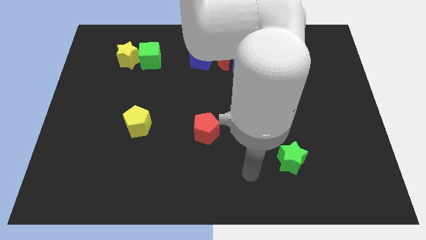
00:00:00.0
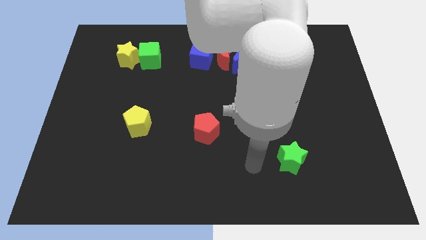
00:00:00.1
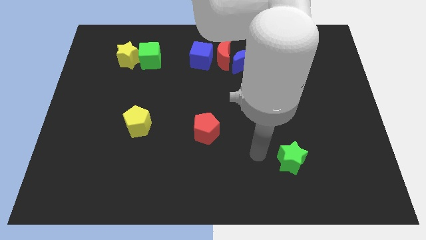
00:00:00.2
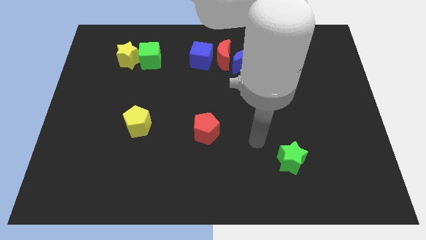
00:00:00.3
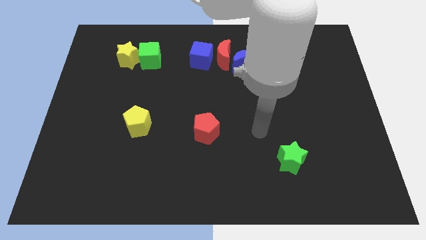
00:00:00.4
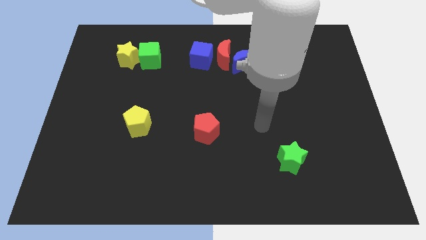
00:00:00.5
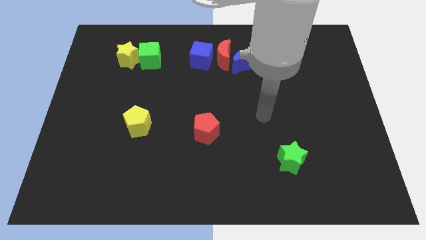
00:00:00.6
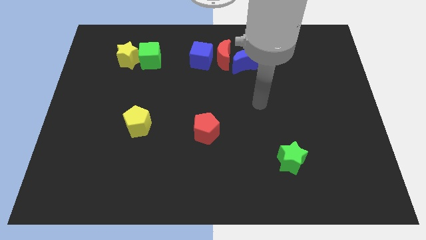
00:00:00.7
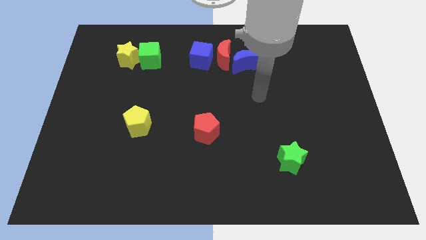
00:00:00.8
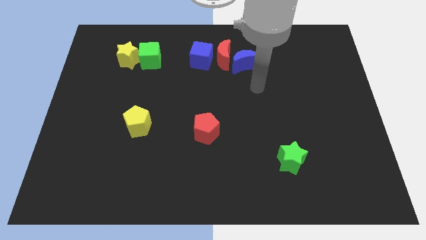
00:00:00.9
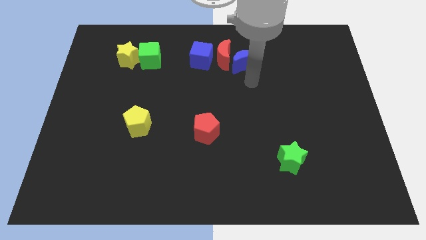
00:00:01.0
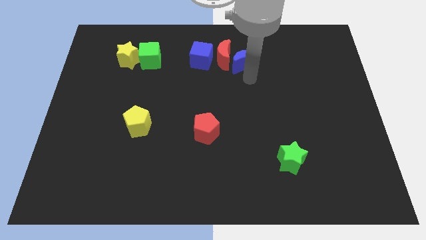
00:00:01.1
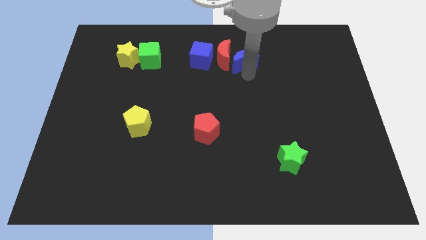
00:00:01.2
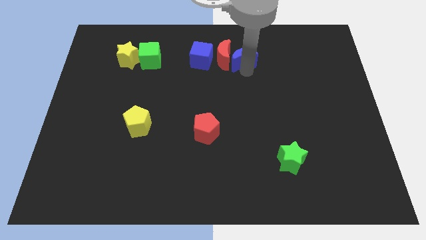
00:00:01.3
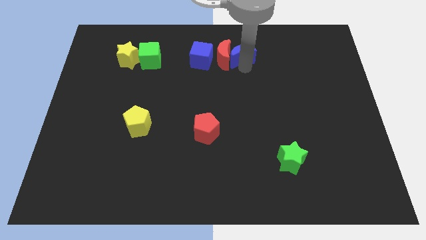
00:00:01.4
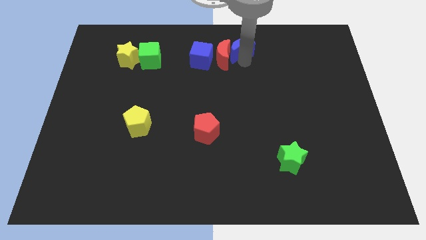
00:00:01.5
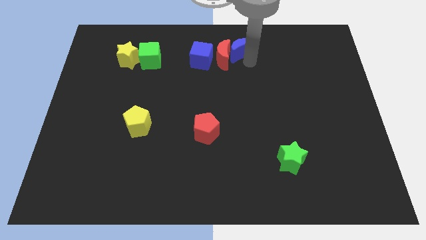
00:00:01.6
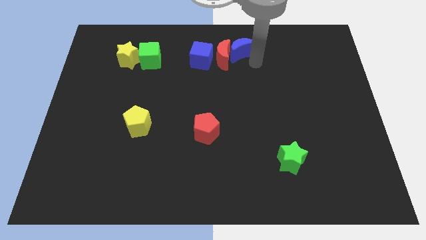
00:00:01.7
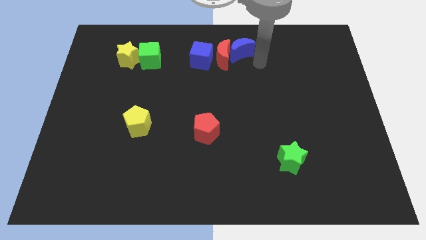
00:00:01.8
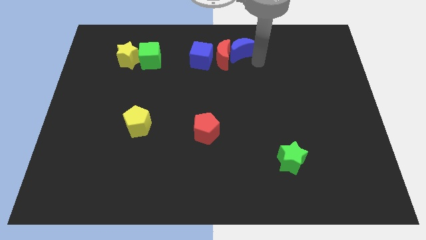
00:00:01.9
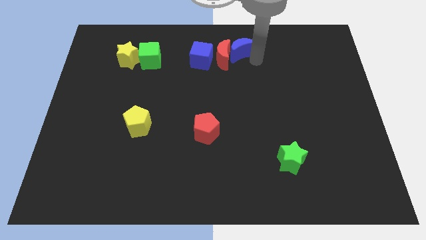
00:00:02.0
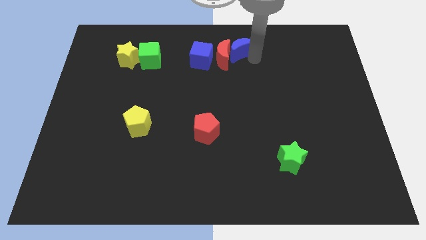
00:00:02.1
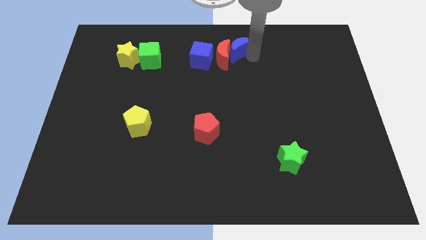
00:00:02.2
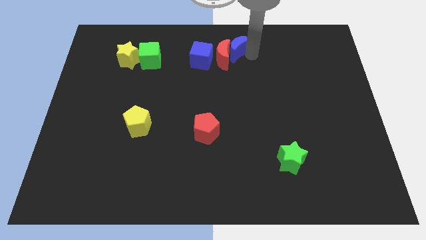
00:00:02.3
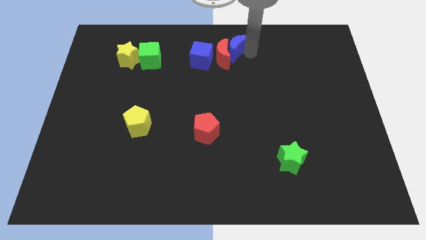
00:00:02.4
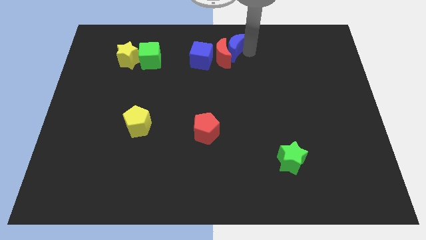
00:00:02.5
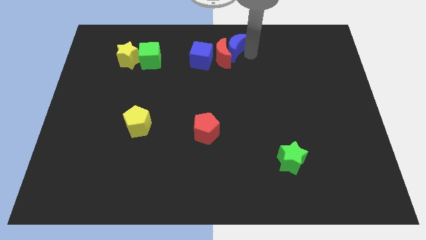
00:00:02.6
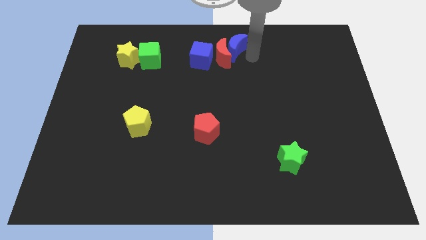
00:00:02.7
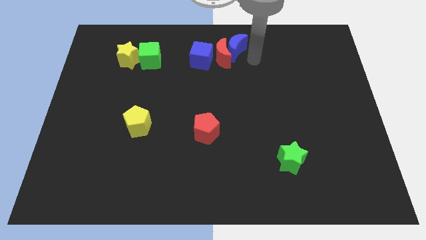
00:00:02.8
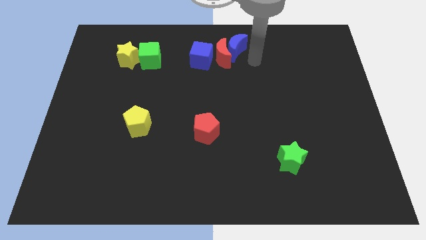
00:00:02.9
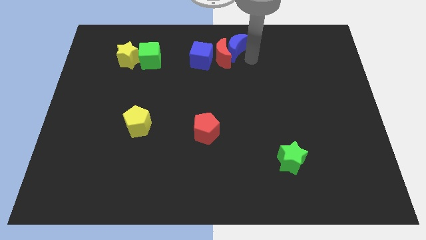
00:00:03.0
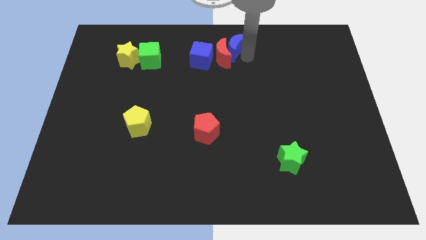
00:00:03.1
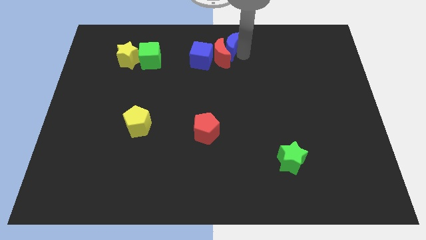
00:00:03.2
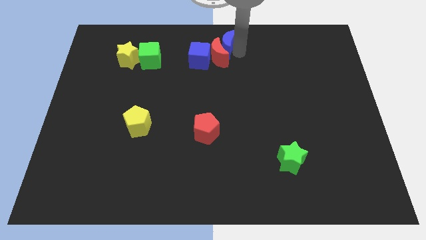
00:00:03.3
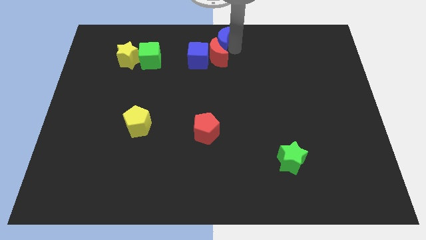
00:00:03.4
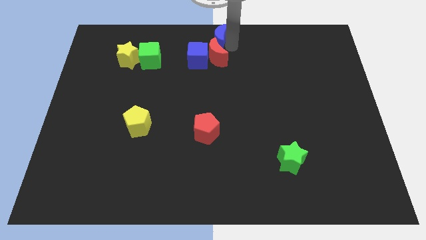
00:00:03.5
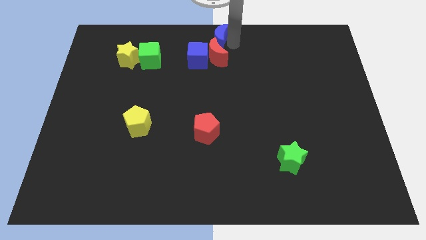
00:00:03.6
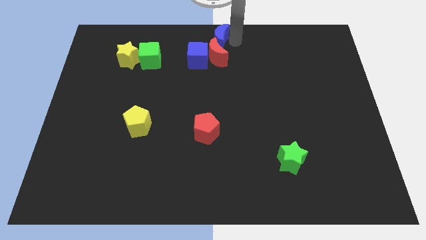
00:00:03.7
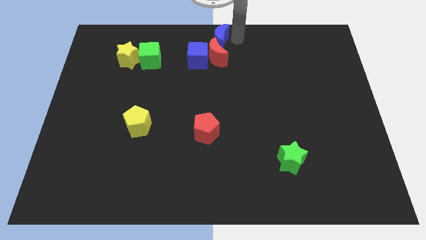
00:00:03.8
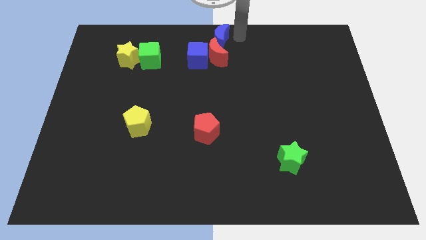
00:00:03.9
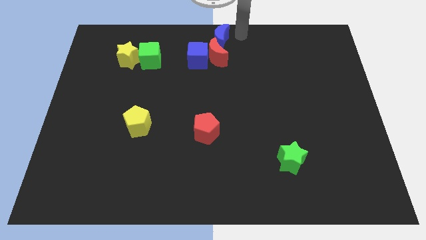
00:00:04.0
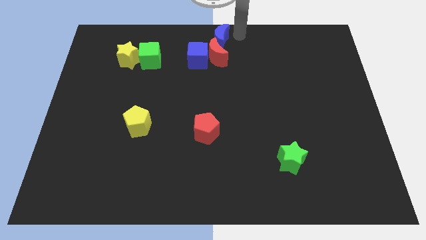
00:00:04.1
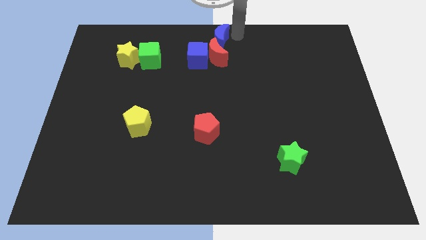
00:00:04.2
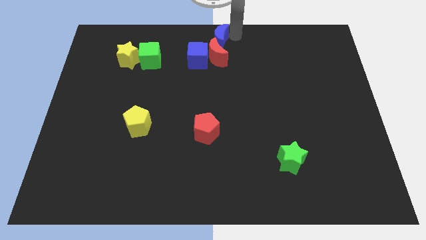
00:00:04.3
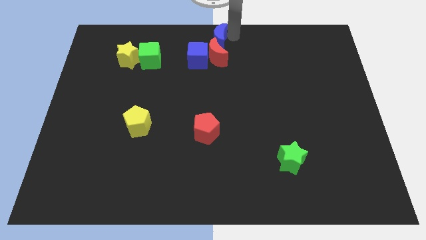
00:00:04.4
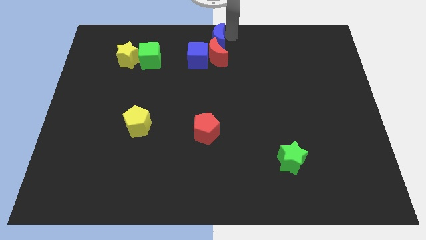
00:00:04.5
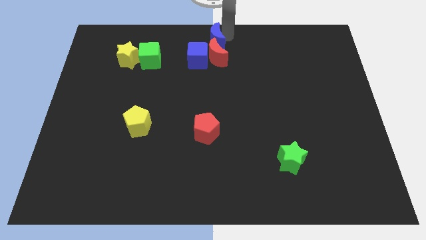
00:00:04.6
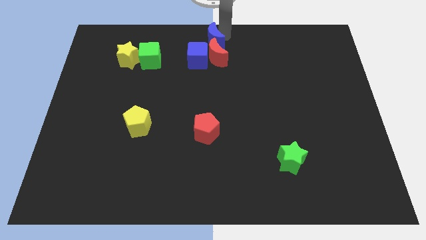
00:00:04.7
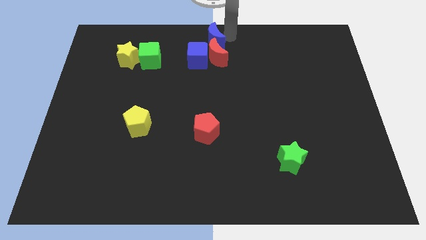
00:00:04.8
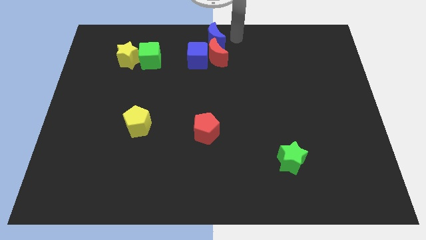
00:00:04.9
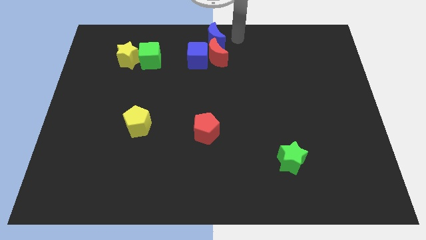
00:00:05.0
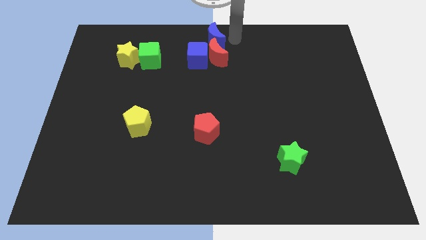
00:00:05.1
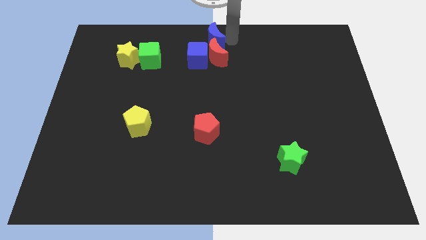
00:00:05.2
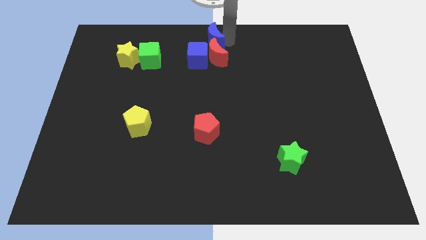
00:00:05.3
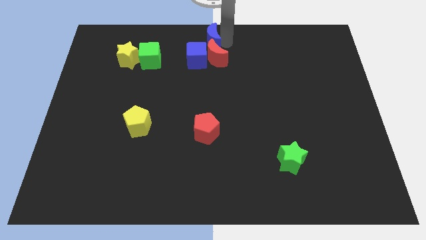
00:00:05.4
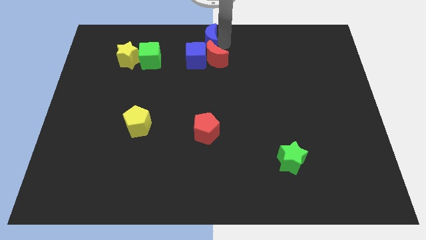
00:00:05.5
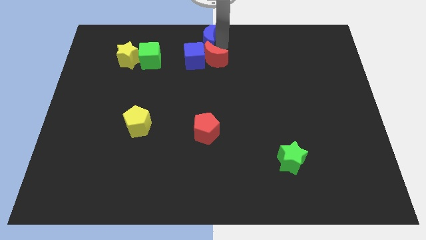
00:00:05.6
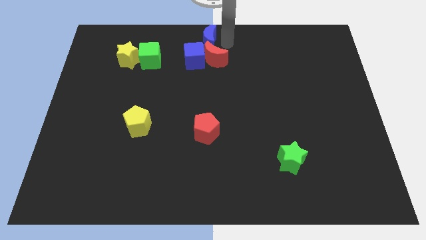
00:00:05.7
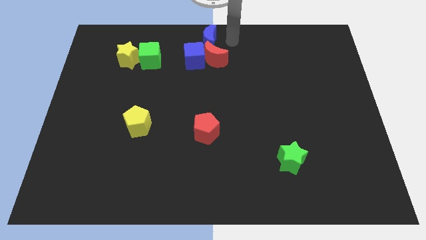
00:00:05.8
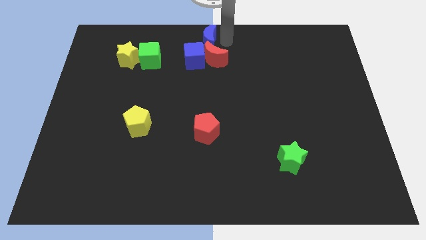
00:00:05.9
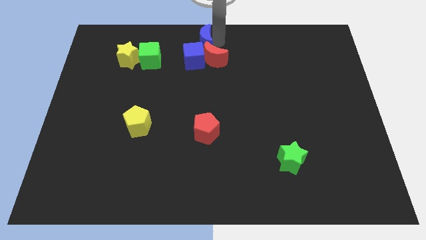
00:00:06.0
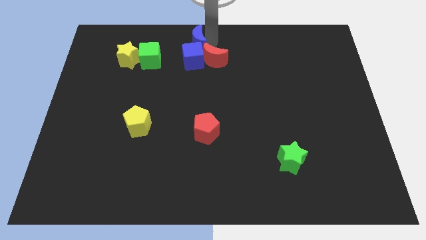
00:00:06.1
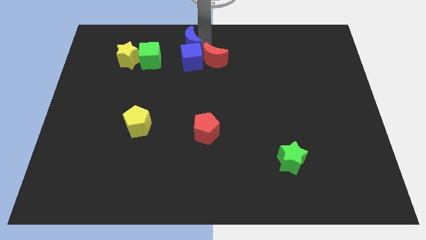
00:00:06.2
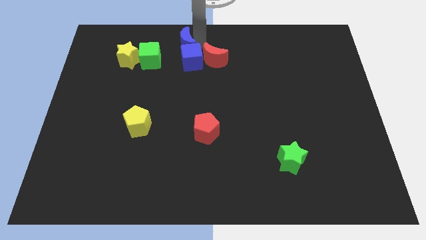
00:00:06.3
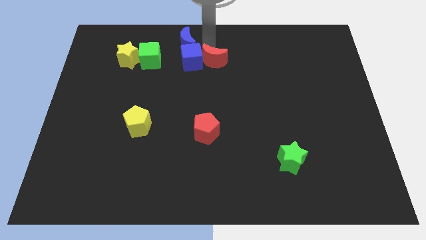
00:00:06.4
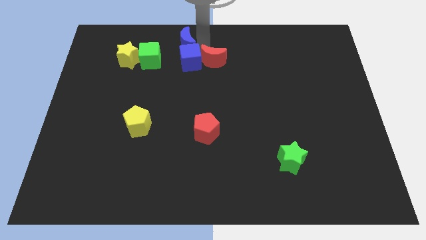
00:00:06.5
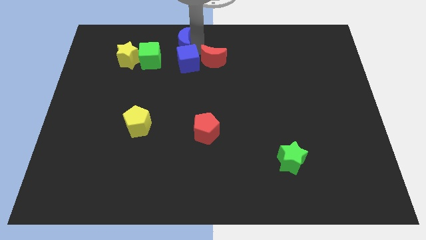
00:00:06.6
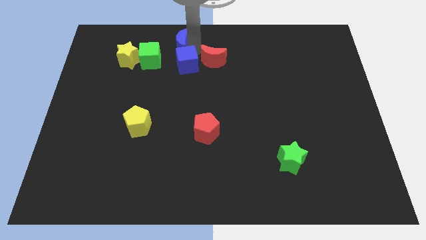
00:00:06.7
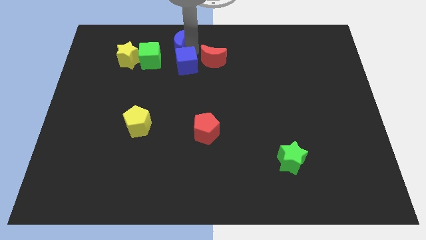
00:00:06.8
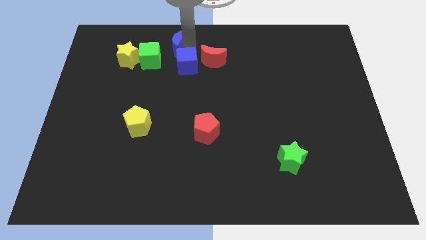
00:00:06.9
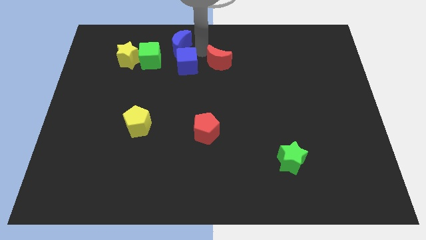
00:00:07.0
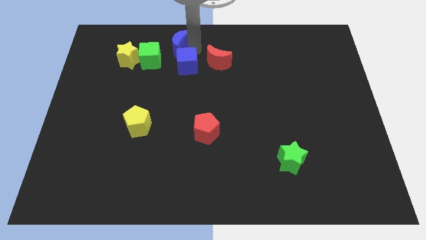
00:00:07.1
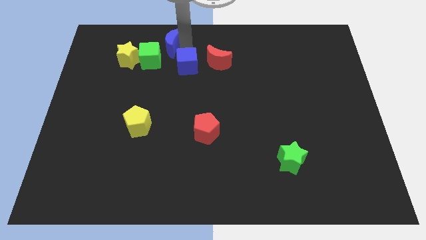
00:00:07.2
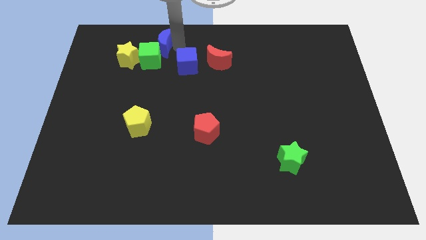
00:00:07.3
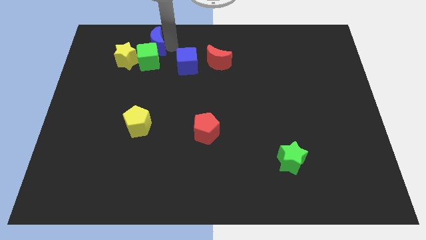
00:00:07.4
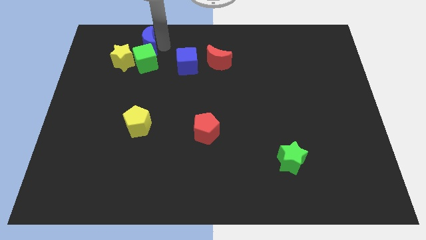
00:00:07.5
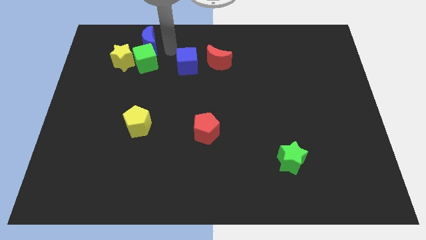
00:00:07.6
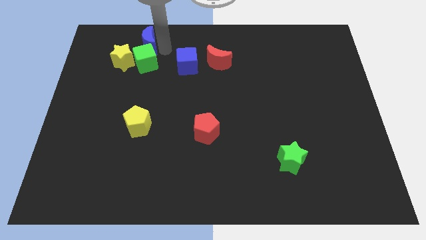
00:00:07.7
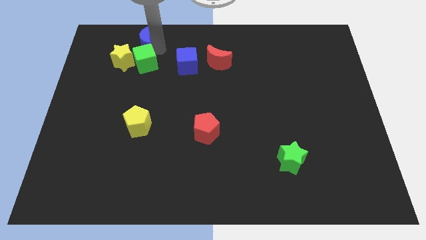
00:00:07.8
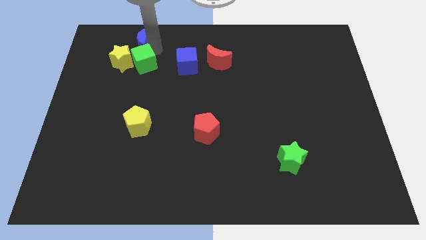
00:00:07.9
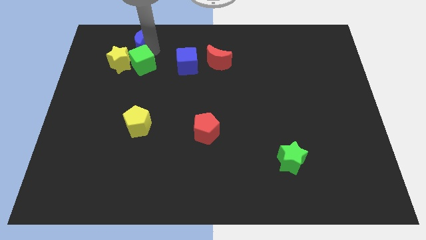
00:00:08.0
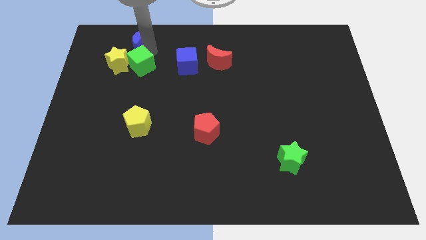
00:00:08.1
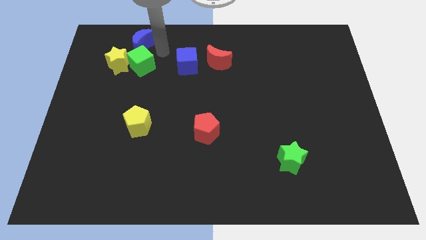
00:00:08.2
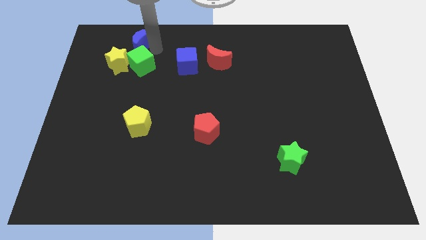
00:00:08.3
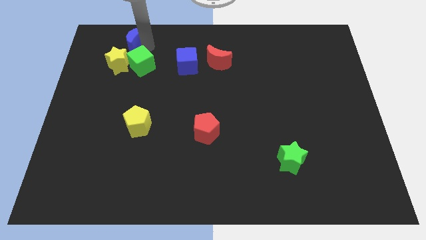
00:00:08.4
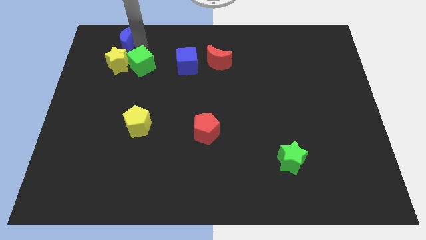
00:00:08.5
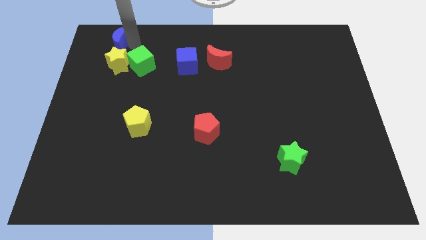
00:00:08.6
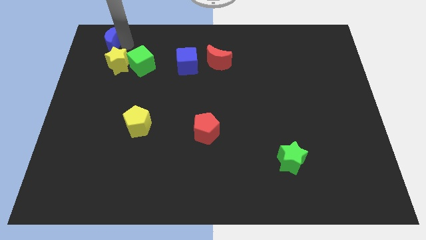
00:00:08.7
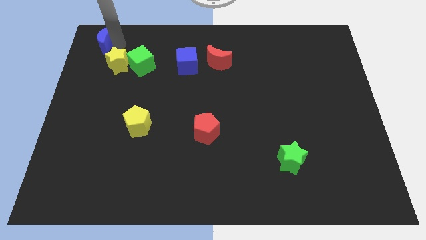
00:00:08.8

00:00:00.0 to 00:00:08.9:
push the blue moon to the top left
